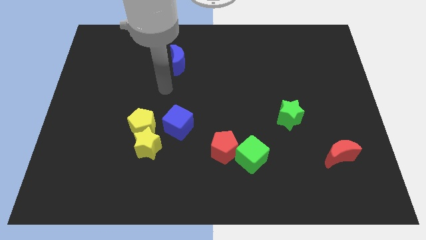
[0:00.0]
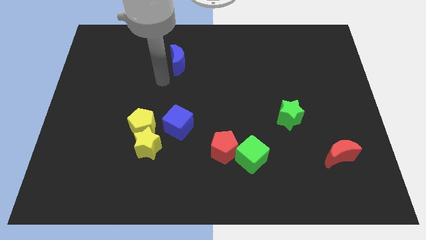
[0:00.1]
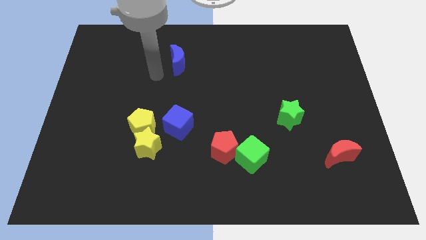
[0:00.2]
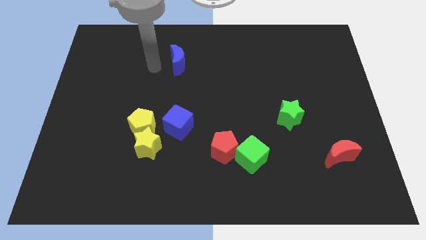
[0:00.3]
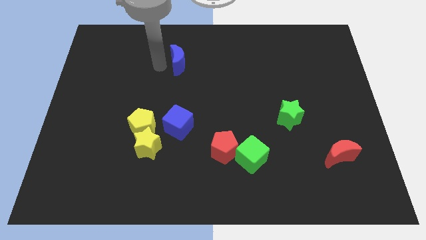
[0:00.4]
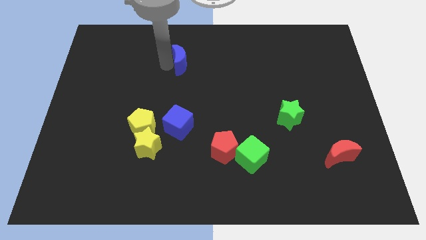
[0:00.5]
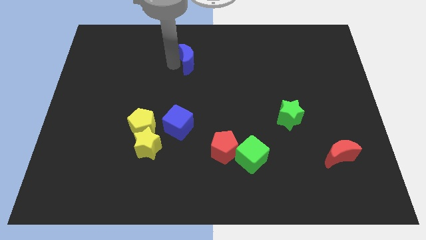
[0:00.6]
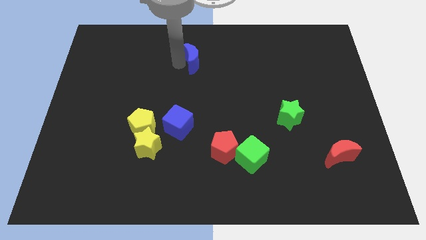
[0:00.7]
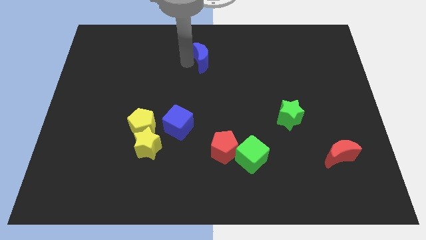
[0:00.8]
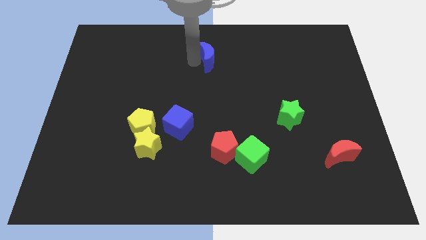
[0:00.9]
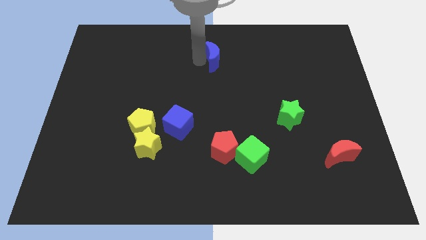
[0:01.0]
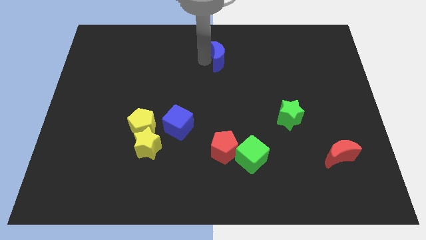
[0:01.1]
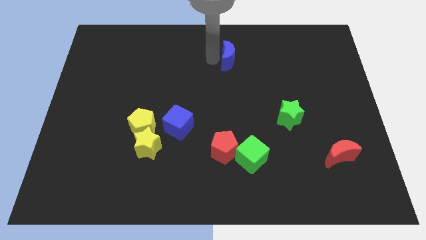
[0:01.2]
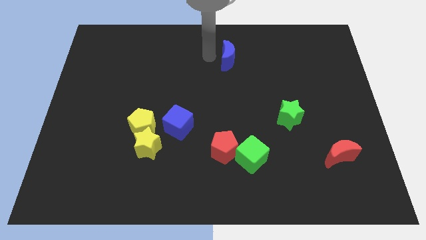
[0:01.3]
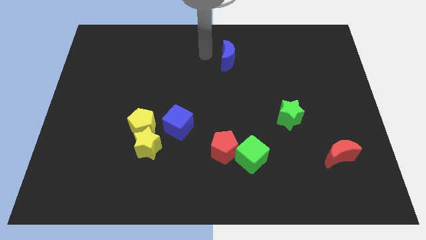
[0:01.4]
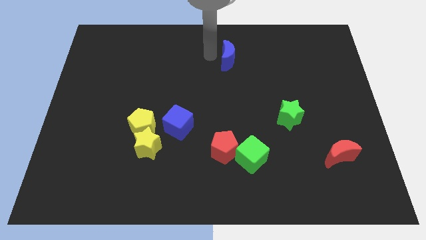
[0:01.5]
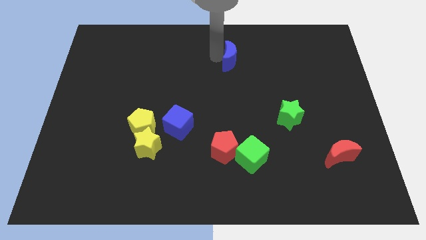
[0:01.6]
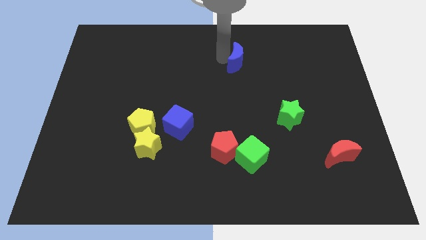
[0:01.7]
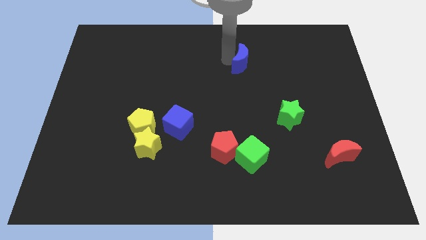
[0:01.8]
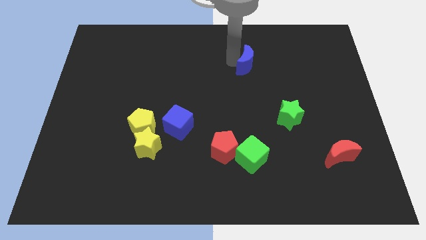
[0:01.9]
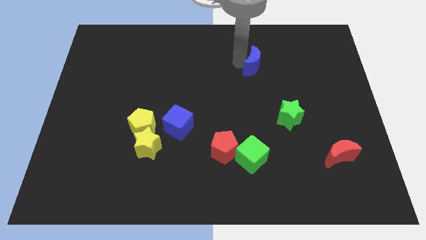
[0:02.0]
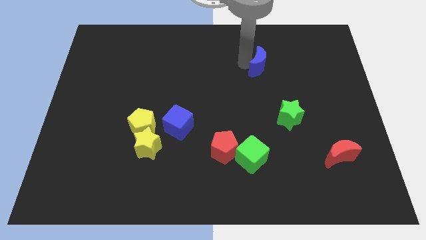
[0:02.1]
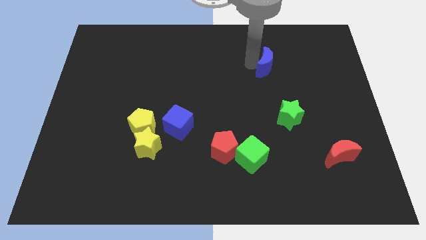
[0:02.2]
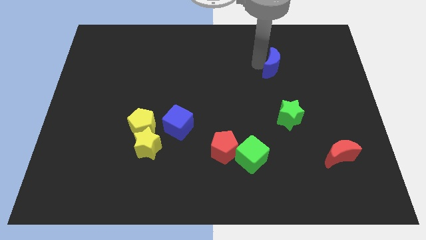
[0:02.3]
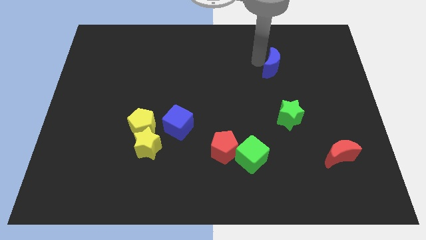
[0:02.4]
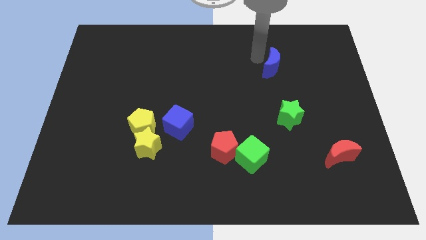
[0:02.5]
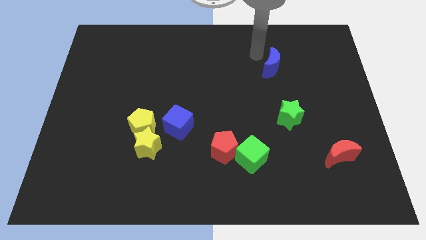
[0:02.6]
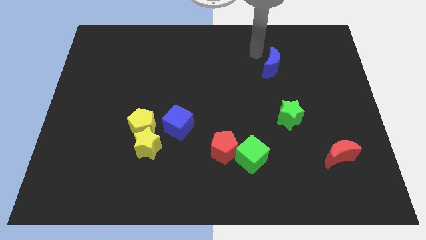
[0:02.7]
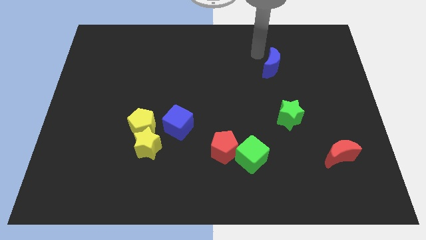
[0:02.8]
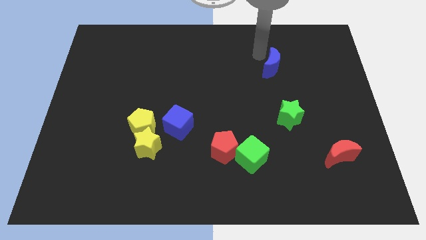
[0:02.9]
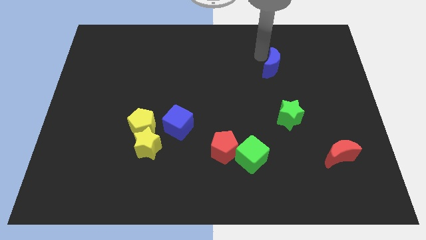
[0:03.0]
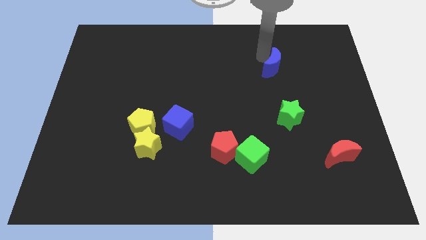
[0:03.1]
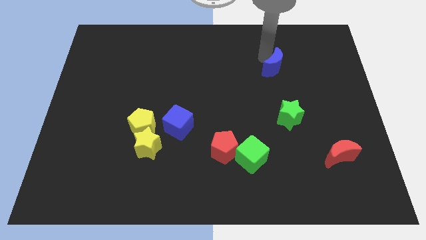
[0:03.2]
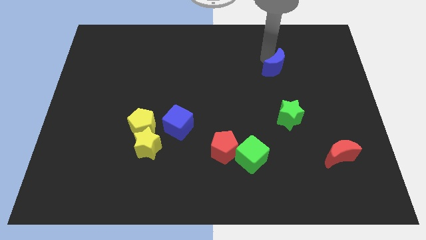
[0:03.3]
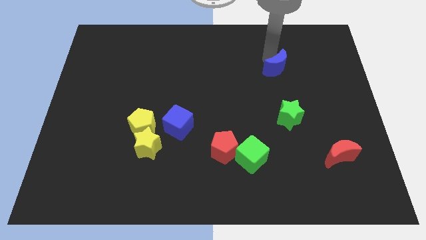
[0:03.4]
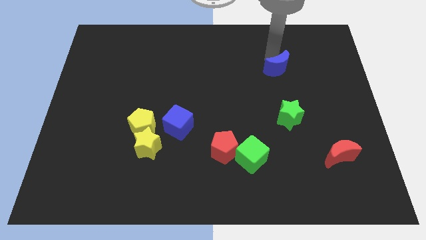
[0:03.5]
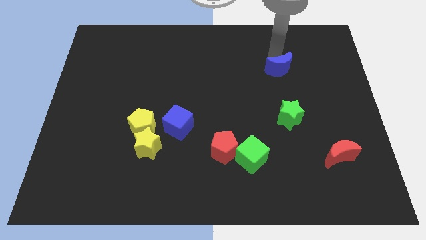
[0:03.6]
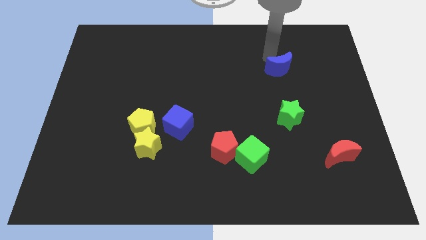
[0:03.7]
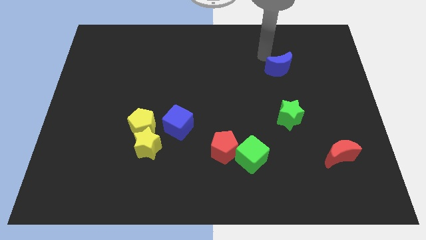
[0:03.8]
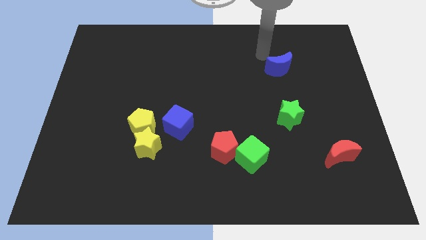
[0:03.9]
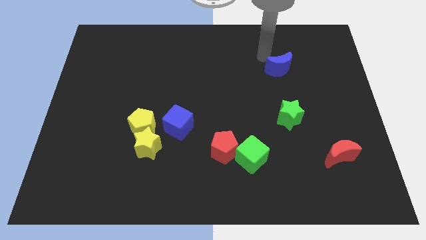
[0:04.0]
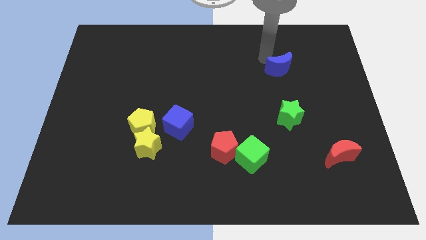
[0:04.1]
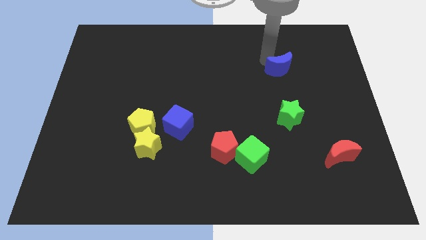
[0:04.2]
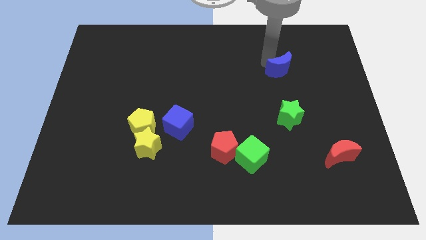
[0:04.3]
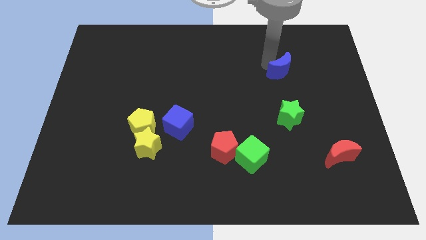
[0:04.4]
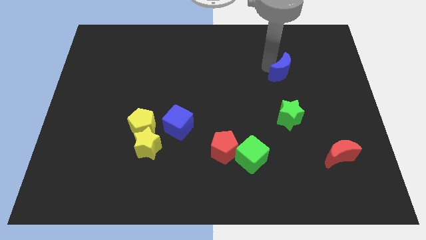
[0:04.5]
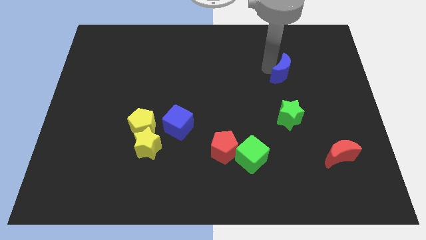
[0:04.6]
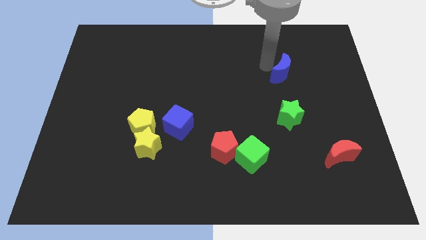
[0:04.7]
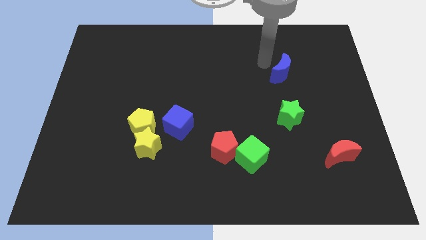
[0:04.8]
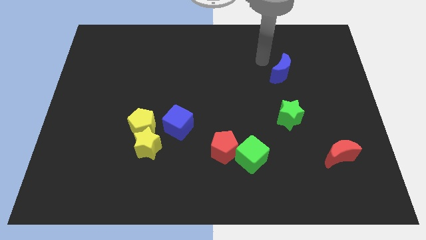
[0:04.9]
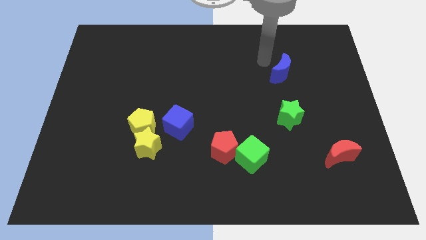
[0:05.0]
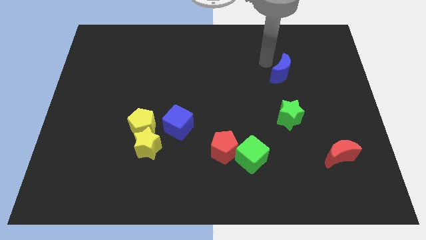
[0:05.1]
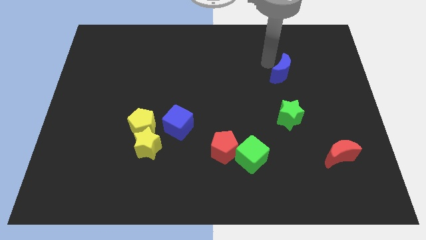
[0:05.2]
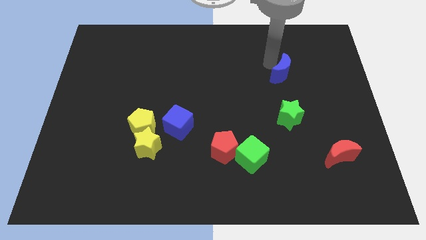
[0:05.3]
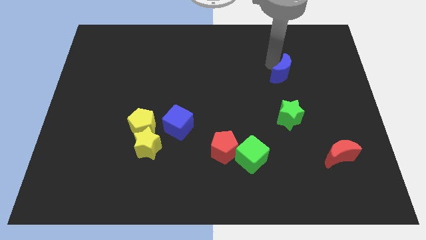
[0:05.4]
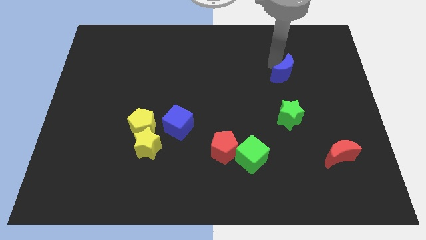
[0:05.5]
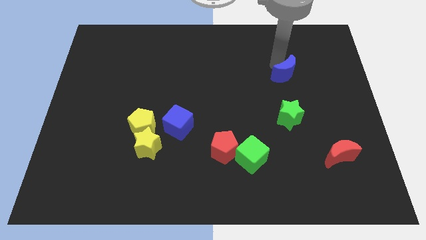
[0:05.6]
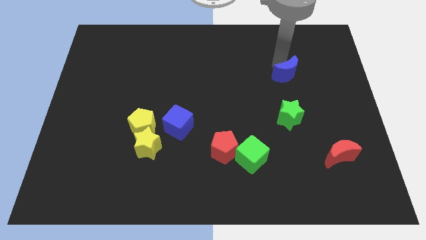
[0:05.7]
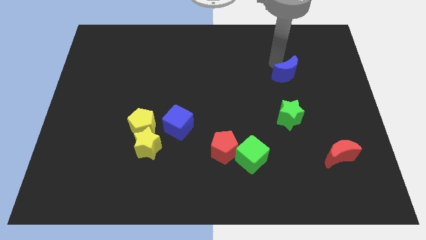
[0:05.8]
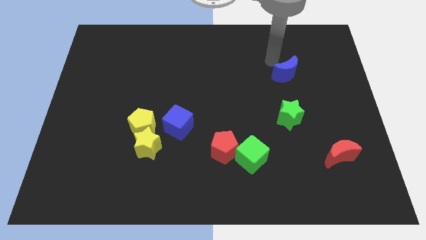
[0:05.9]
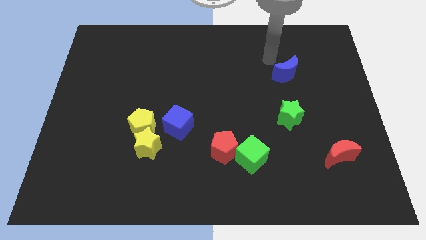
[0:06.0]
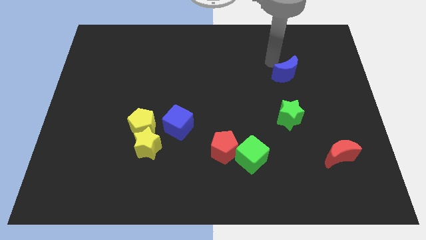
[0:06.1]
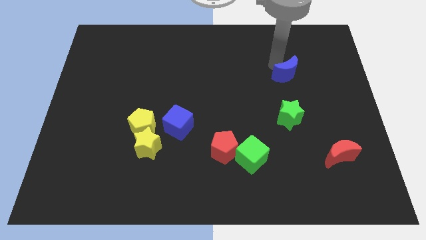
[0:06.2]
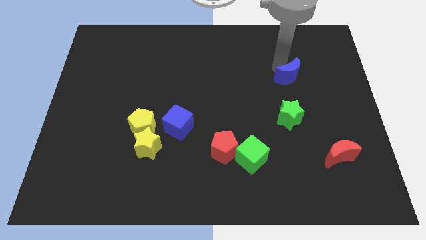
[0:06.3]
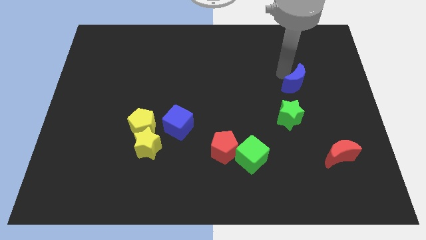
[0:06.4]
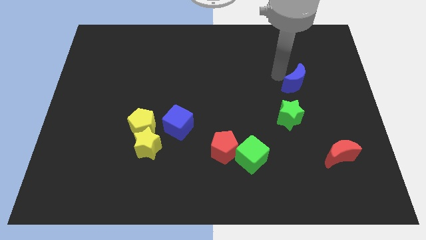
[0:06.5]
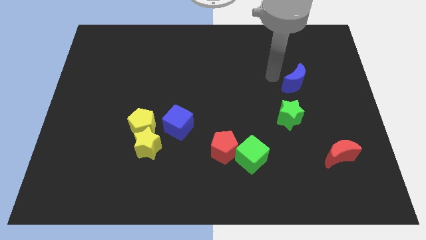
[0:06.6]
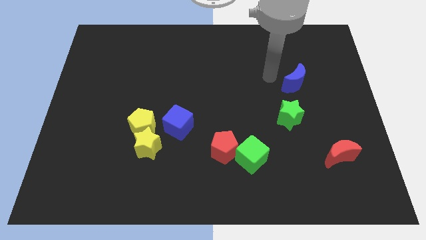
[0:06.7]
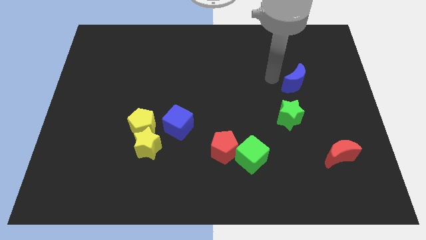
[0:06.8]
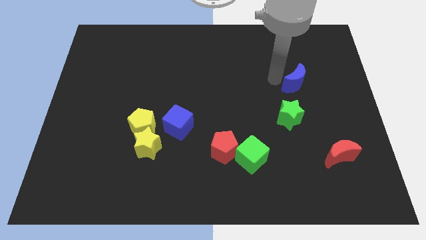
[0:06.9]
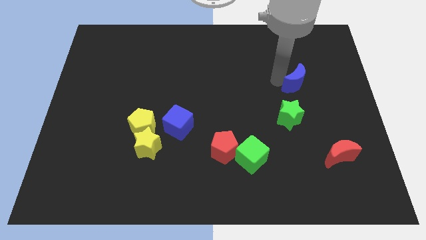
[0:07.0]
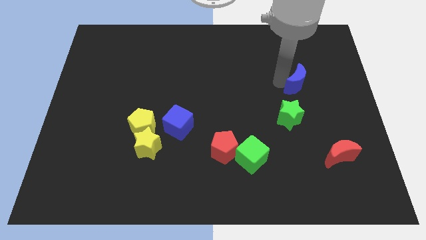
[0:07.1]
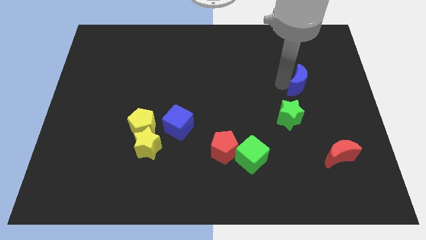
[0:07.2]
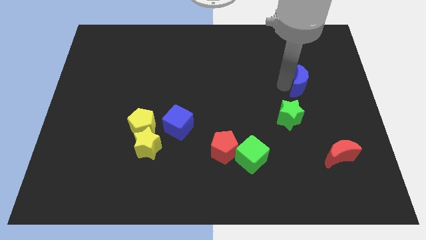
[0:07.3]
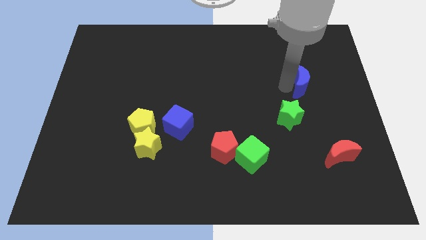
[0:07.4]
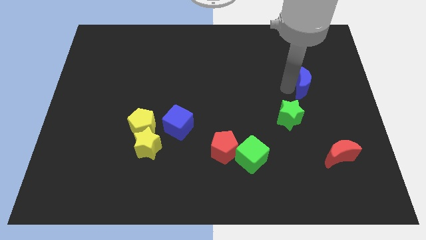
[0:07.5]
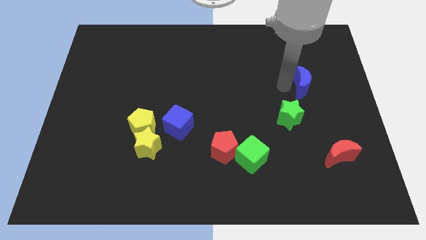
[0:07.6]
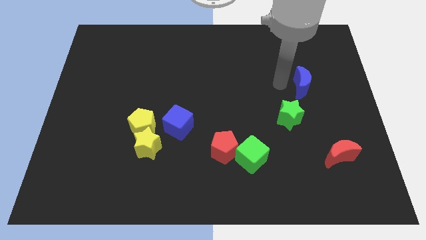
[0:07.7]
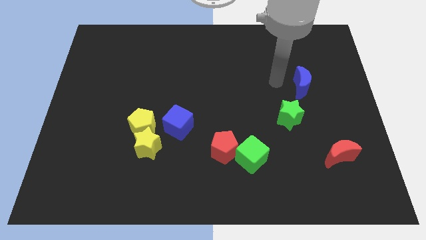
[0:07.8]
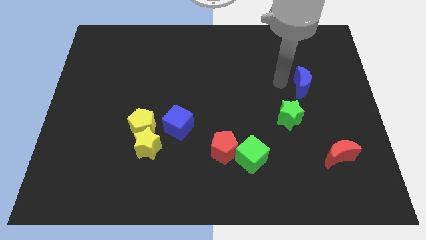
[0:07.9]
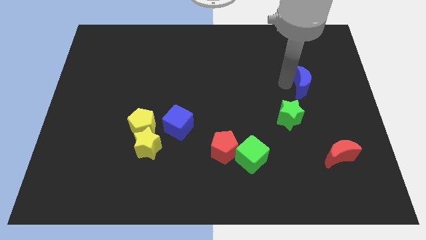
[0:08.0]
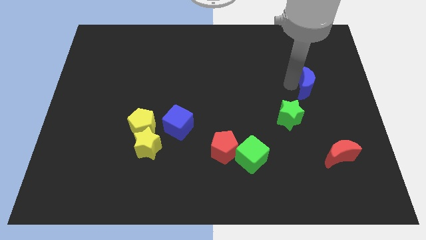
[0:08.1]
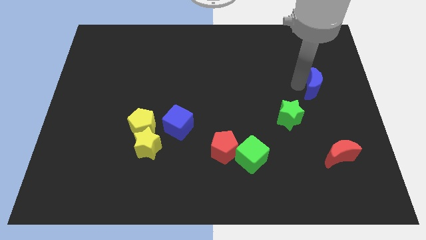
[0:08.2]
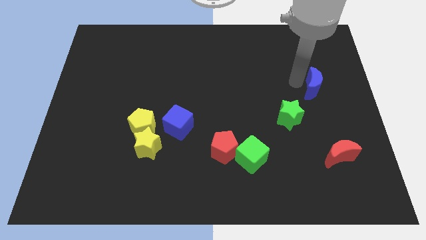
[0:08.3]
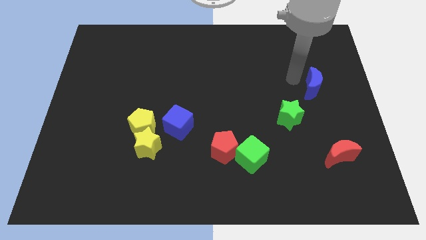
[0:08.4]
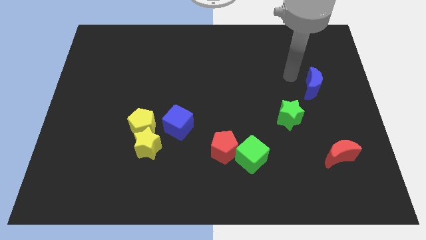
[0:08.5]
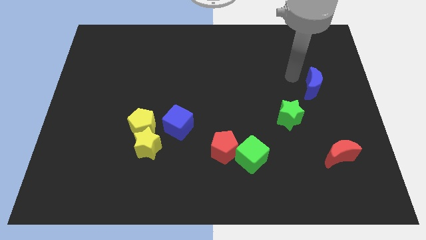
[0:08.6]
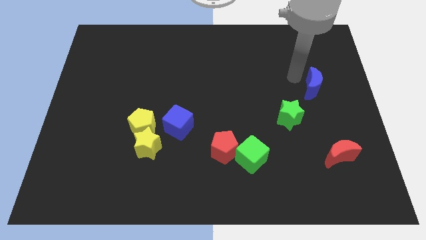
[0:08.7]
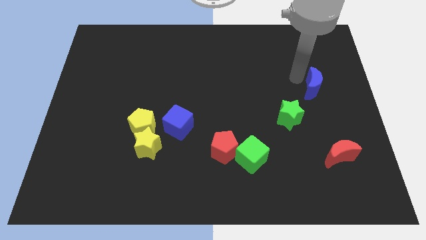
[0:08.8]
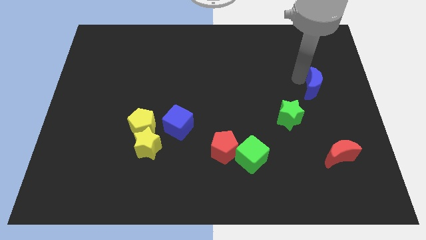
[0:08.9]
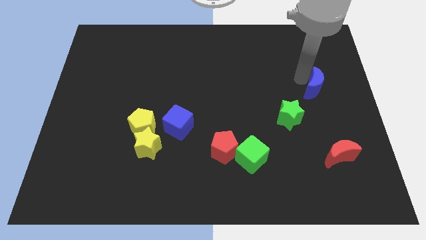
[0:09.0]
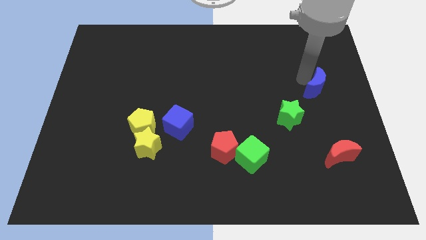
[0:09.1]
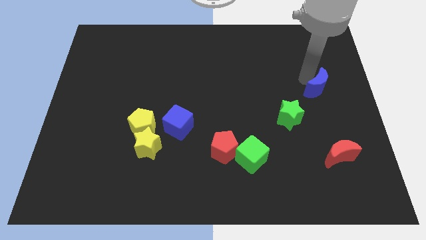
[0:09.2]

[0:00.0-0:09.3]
slide the blue moon to the right side of the board
